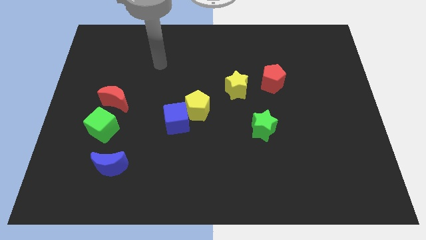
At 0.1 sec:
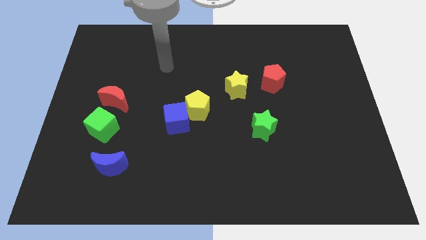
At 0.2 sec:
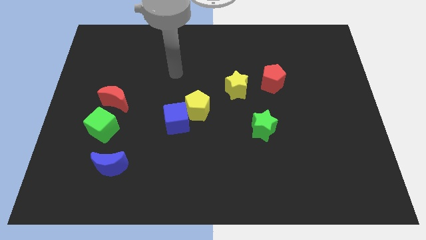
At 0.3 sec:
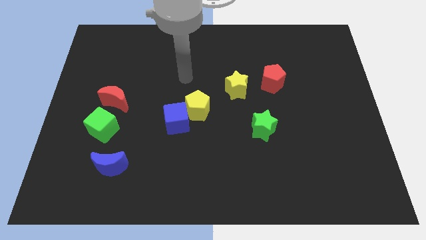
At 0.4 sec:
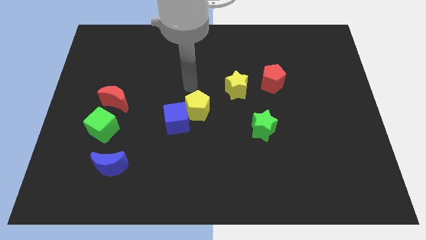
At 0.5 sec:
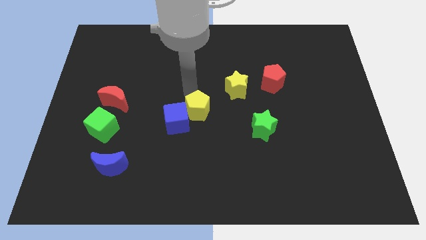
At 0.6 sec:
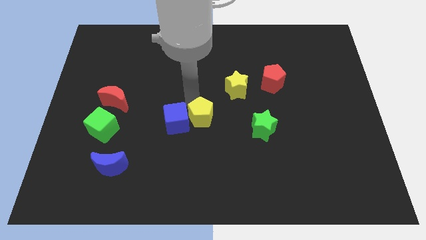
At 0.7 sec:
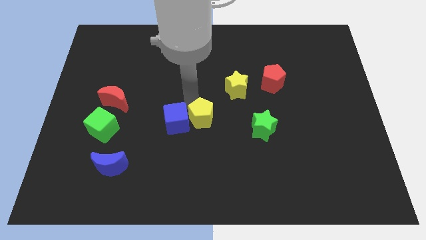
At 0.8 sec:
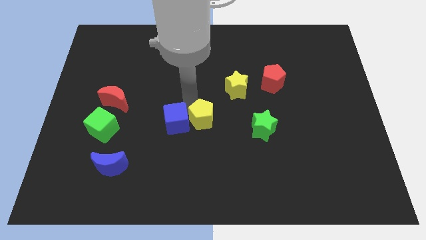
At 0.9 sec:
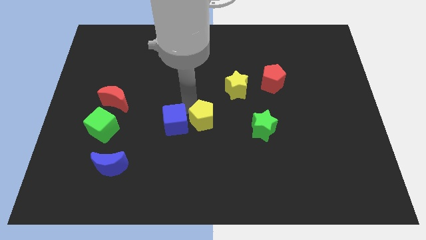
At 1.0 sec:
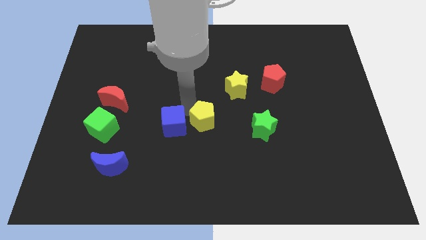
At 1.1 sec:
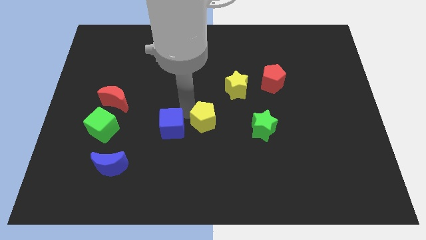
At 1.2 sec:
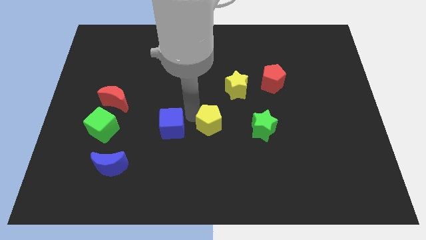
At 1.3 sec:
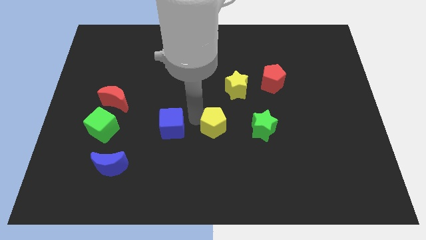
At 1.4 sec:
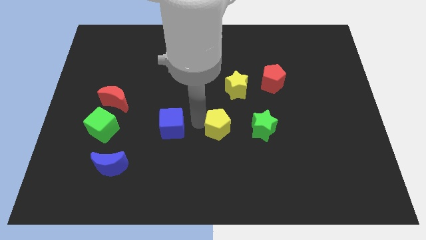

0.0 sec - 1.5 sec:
separate the blue cube from the yellow pentagon

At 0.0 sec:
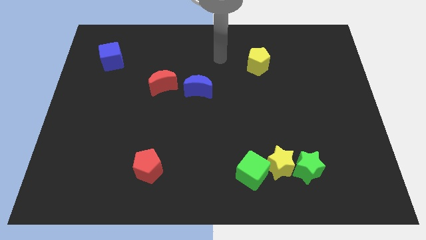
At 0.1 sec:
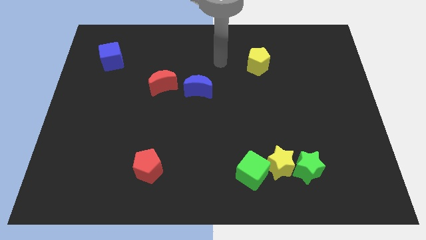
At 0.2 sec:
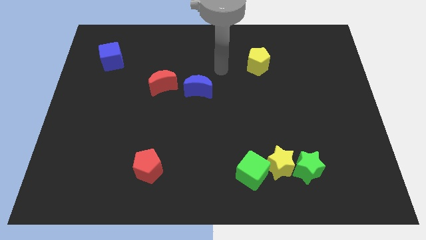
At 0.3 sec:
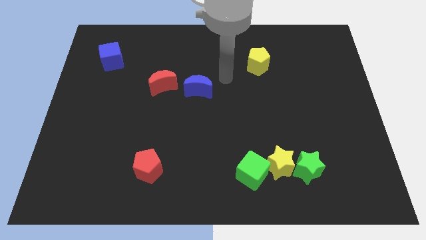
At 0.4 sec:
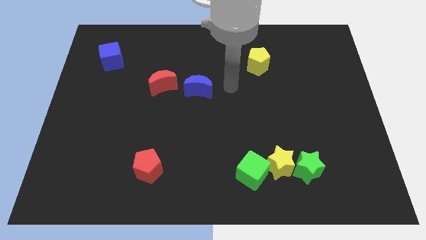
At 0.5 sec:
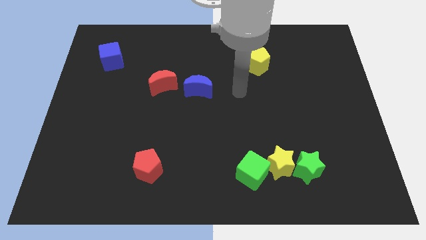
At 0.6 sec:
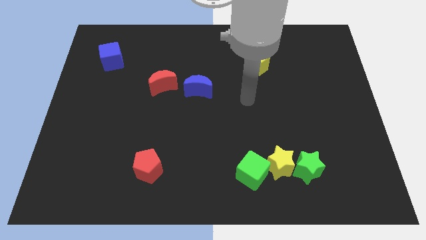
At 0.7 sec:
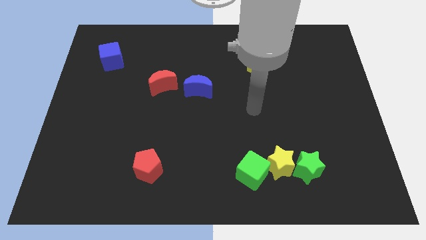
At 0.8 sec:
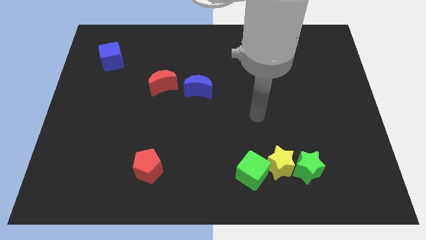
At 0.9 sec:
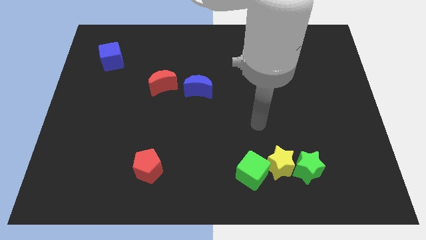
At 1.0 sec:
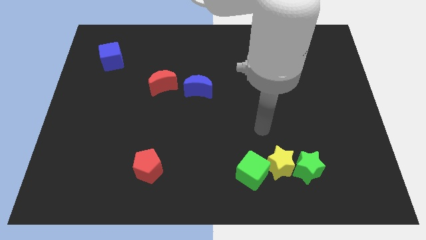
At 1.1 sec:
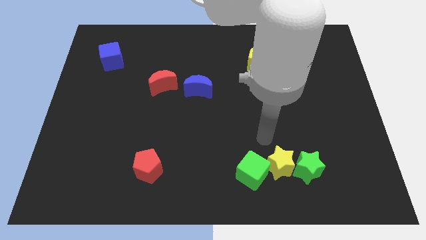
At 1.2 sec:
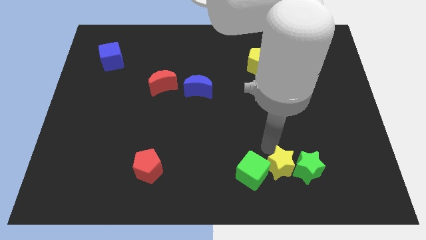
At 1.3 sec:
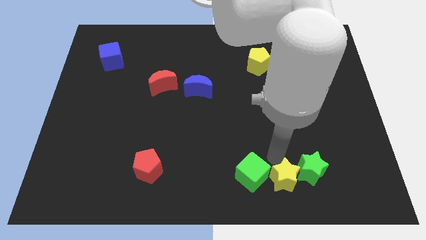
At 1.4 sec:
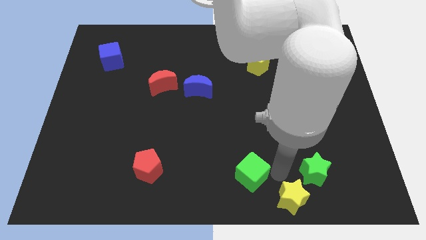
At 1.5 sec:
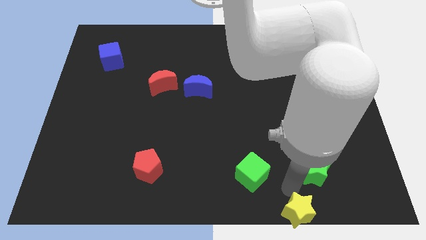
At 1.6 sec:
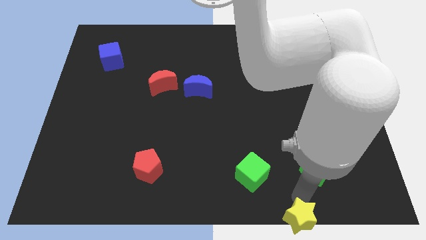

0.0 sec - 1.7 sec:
move the green star away from the yellow star

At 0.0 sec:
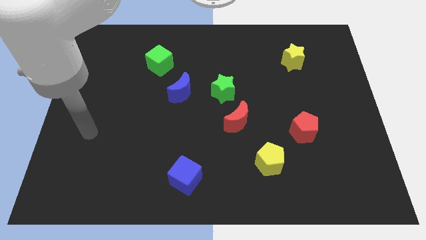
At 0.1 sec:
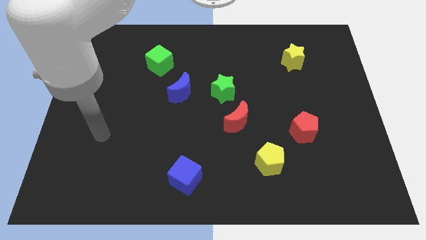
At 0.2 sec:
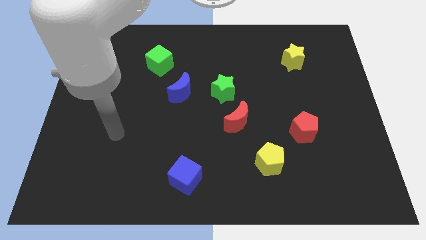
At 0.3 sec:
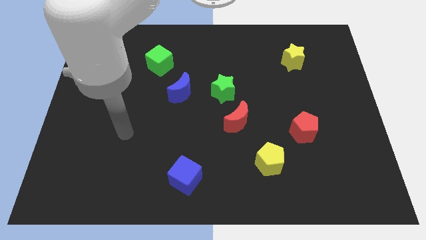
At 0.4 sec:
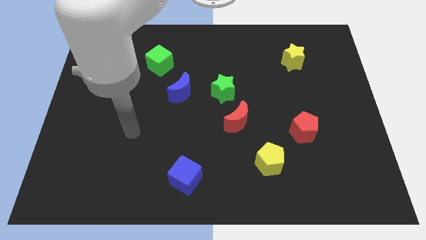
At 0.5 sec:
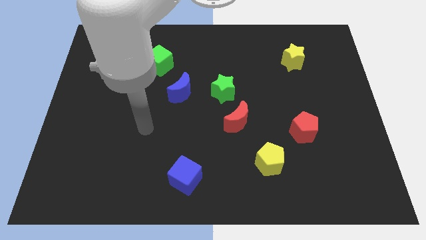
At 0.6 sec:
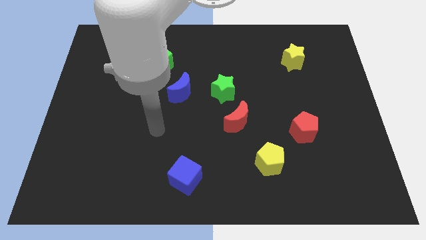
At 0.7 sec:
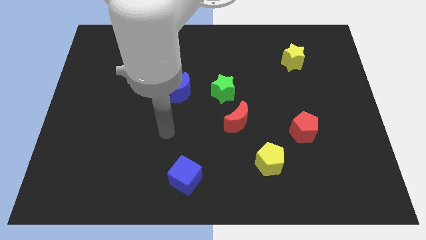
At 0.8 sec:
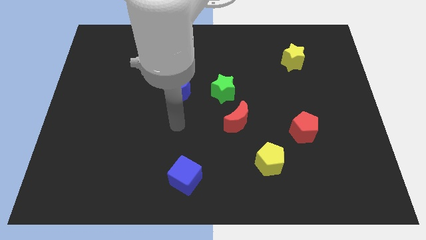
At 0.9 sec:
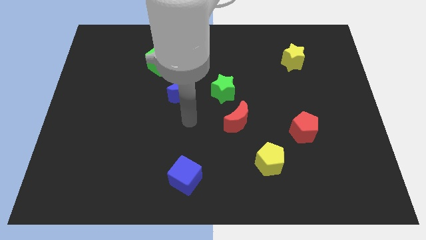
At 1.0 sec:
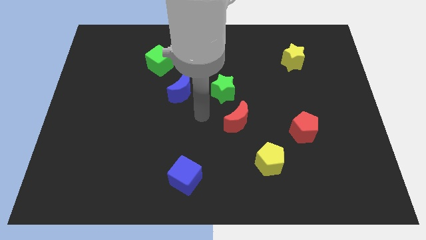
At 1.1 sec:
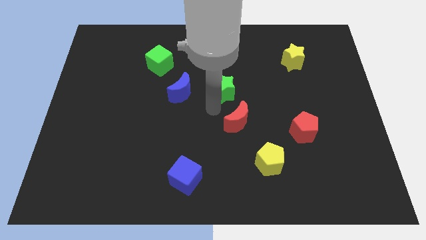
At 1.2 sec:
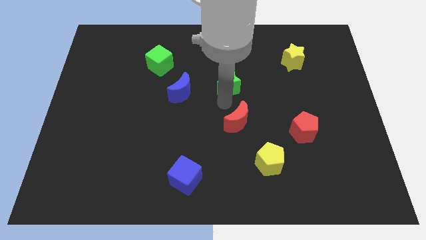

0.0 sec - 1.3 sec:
pull the red moon apart from the green star

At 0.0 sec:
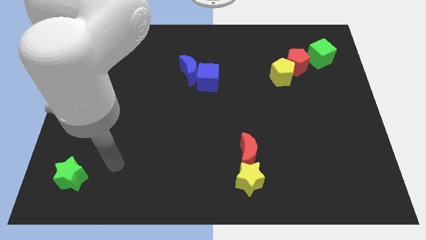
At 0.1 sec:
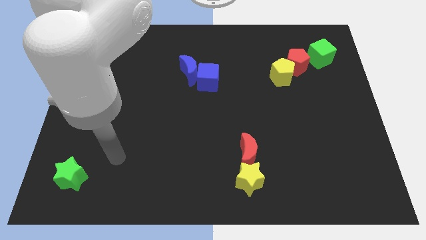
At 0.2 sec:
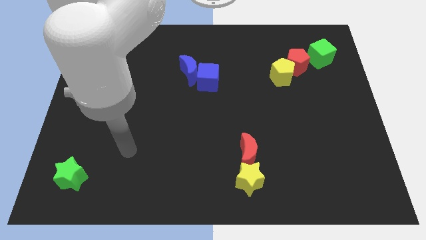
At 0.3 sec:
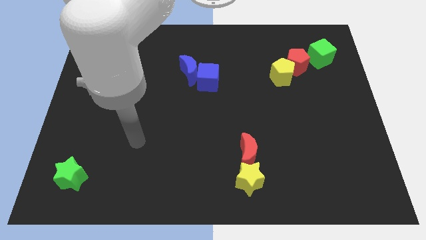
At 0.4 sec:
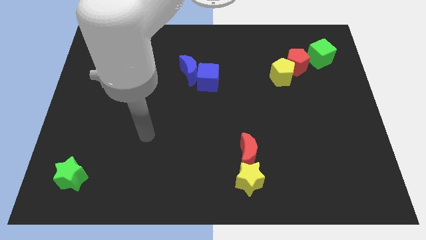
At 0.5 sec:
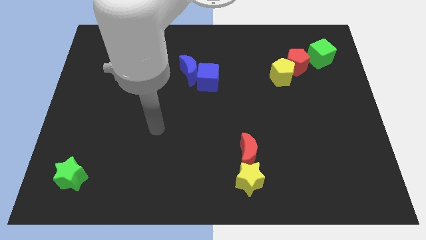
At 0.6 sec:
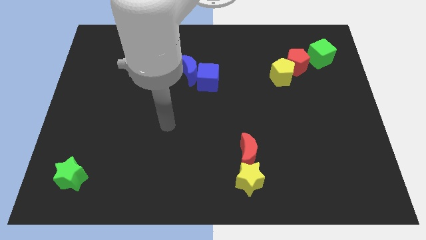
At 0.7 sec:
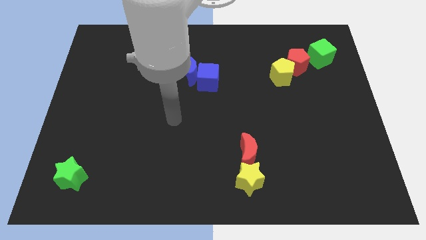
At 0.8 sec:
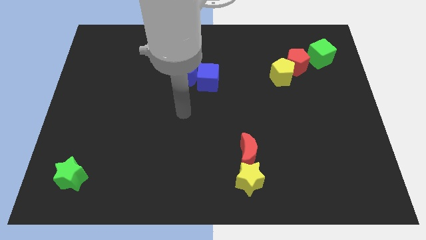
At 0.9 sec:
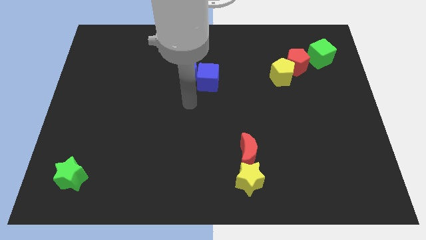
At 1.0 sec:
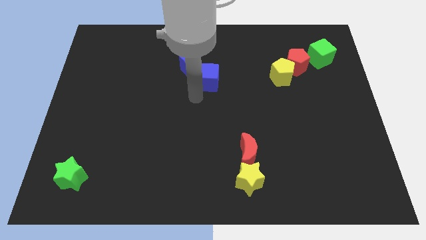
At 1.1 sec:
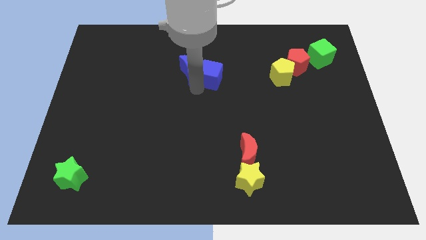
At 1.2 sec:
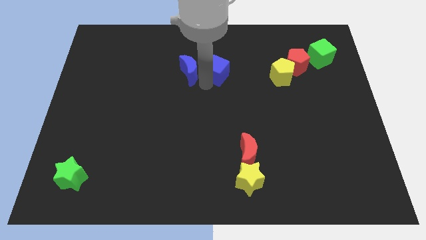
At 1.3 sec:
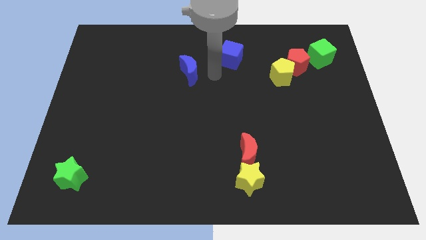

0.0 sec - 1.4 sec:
pull the blue moon apart from the blue cube

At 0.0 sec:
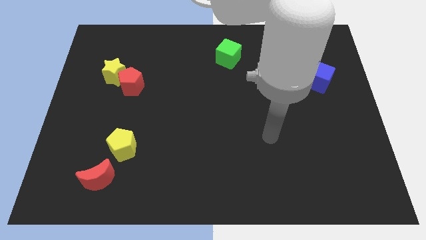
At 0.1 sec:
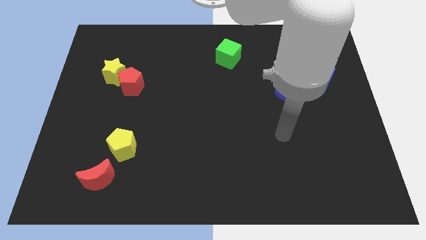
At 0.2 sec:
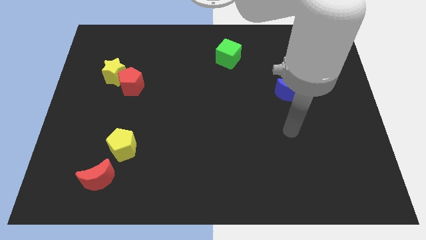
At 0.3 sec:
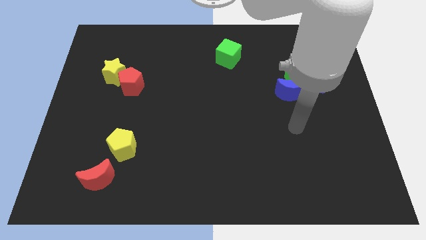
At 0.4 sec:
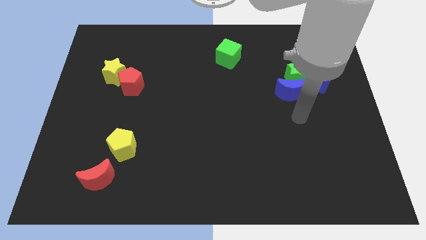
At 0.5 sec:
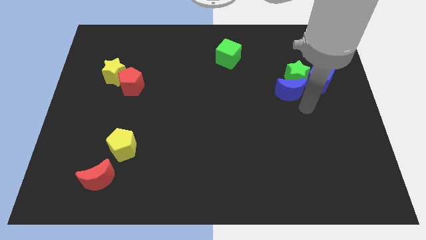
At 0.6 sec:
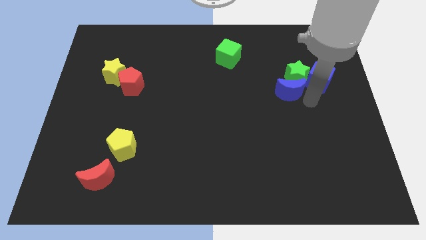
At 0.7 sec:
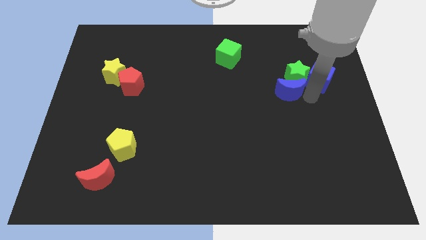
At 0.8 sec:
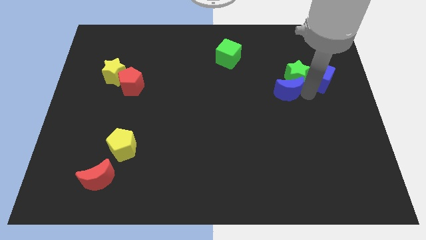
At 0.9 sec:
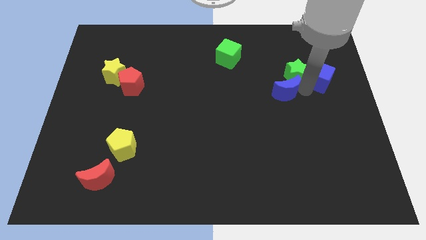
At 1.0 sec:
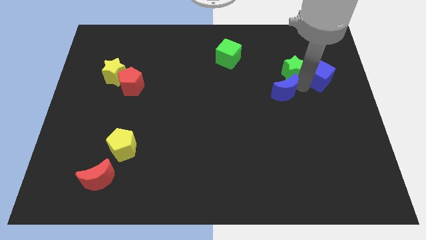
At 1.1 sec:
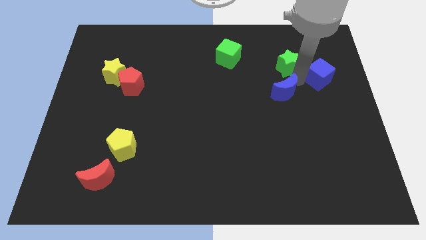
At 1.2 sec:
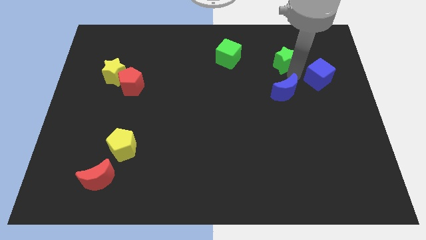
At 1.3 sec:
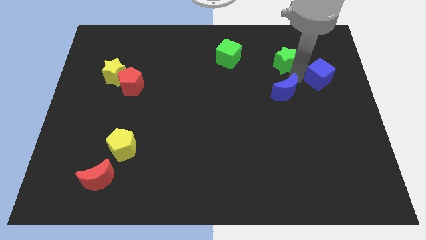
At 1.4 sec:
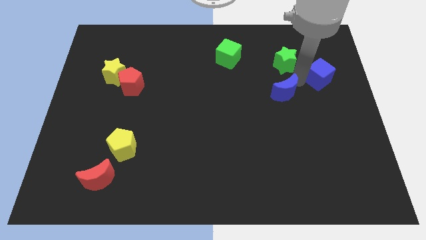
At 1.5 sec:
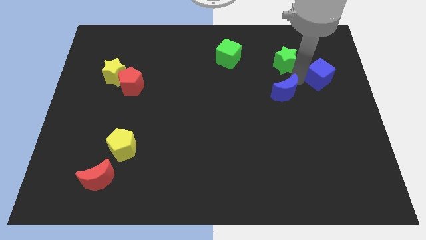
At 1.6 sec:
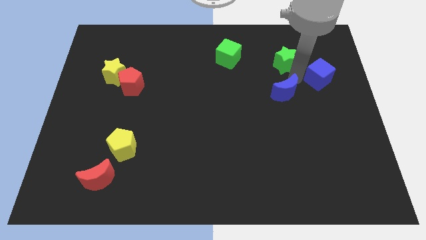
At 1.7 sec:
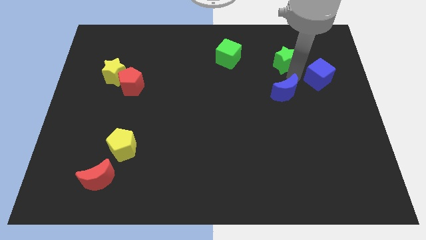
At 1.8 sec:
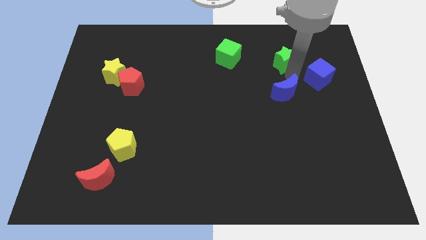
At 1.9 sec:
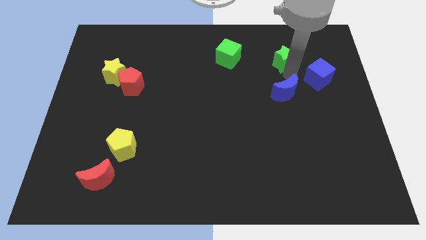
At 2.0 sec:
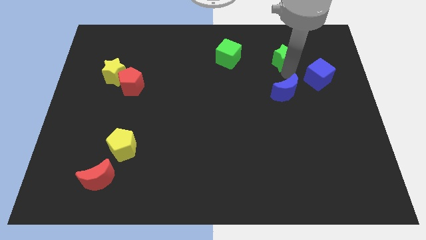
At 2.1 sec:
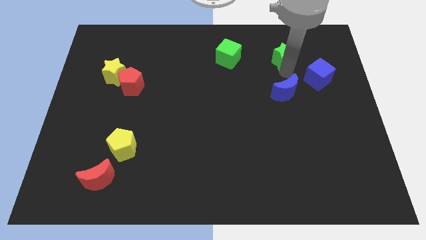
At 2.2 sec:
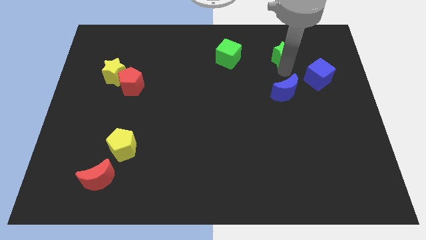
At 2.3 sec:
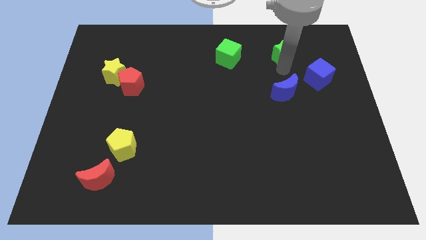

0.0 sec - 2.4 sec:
separate the green star from the blue moon and blue cube

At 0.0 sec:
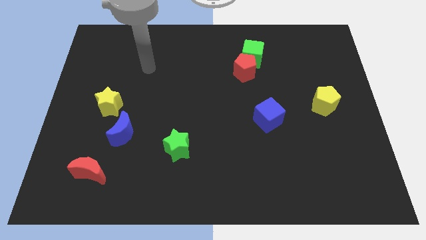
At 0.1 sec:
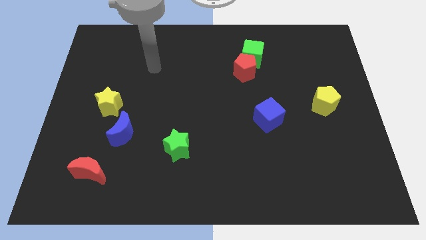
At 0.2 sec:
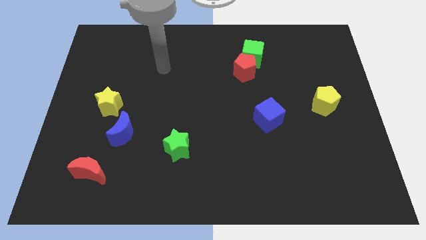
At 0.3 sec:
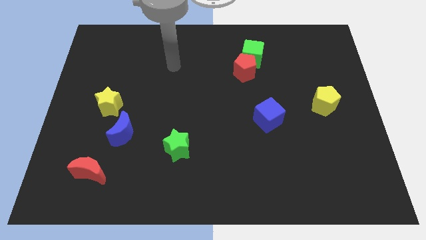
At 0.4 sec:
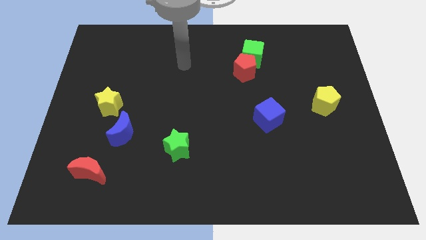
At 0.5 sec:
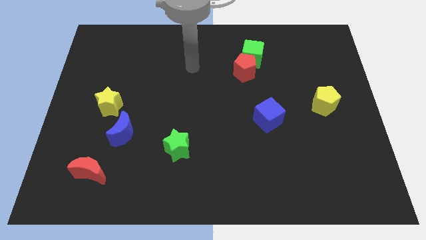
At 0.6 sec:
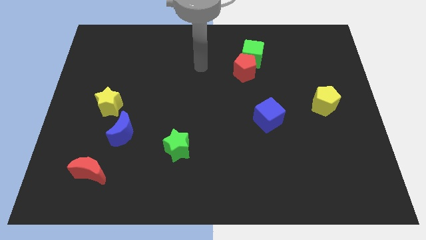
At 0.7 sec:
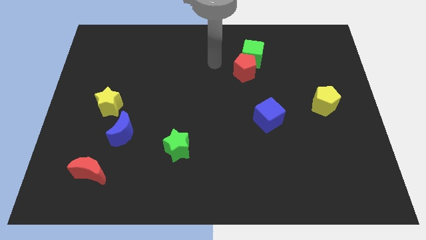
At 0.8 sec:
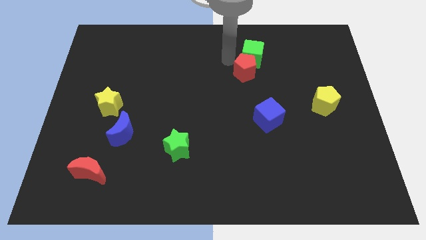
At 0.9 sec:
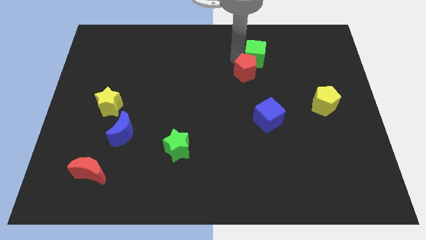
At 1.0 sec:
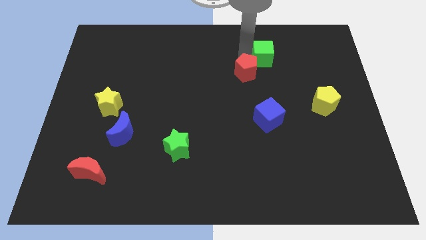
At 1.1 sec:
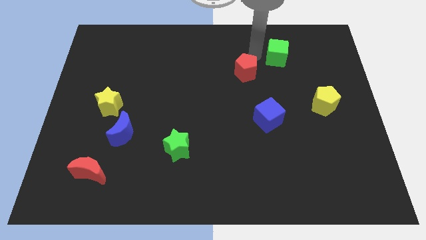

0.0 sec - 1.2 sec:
pull the red pentagon apart from the green cube
